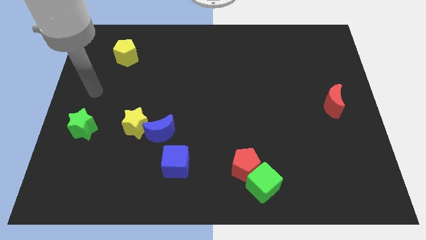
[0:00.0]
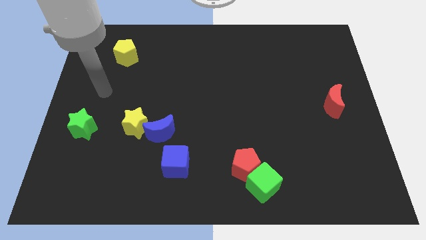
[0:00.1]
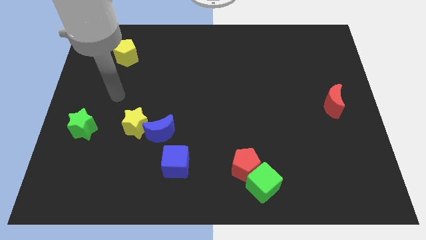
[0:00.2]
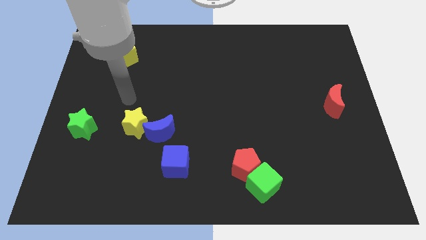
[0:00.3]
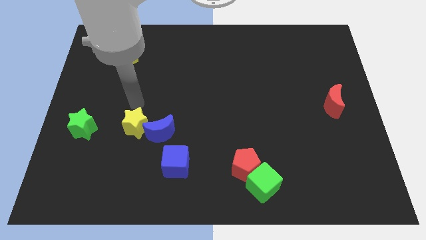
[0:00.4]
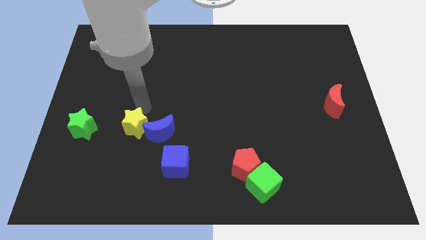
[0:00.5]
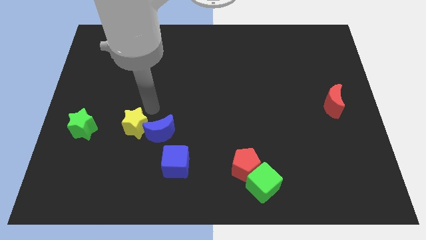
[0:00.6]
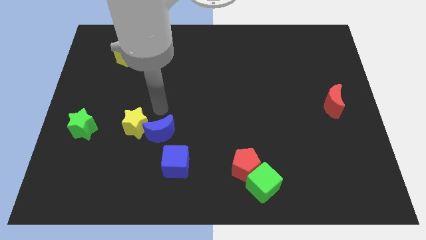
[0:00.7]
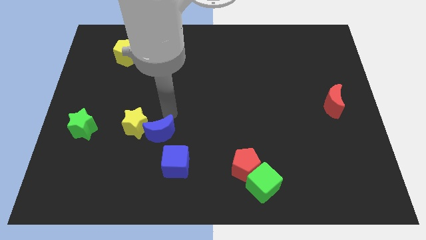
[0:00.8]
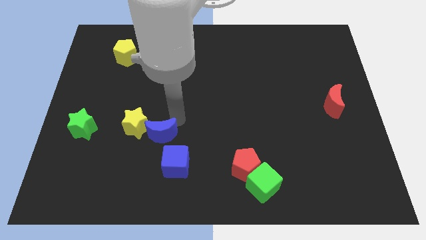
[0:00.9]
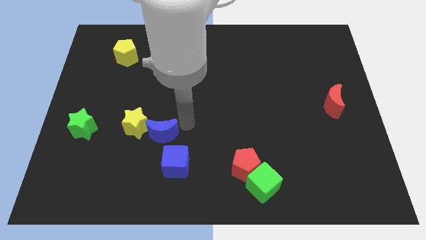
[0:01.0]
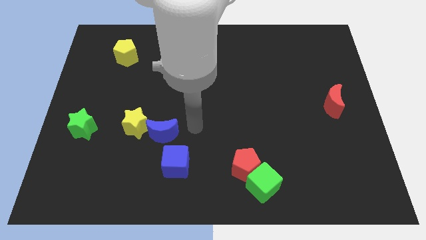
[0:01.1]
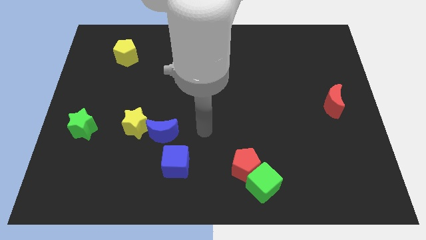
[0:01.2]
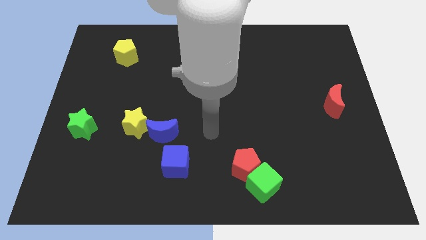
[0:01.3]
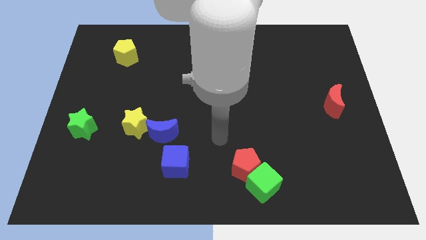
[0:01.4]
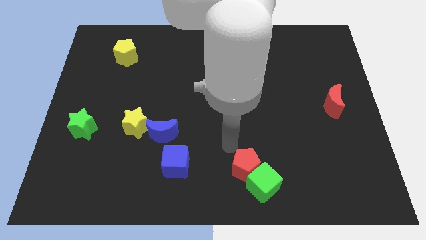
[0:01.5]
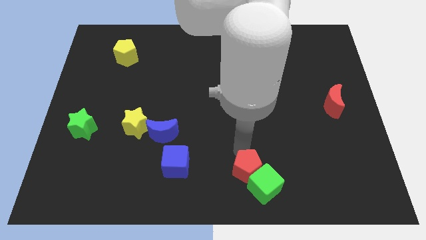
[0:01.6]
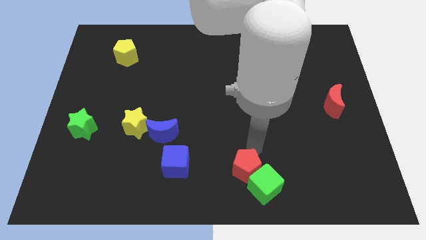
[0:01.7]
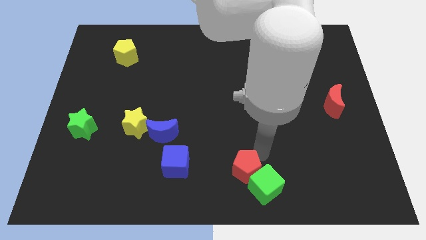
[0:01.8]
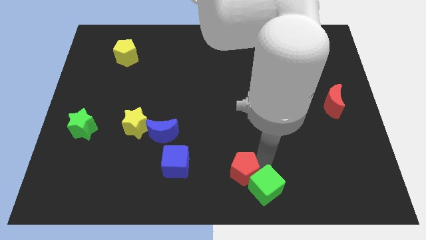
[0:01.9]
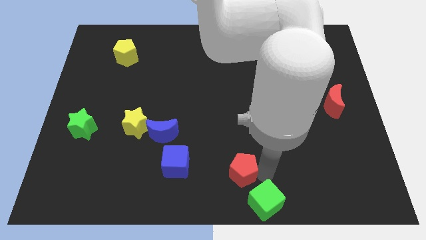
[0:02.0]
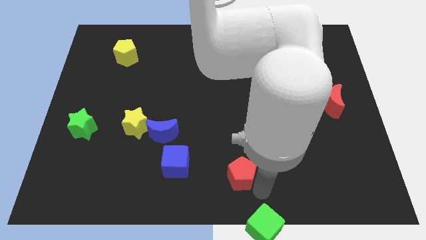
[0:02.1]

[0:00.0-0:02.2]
pull the red pentagon apart from the green cube

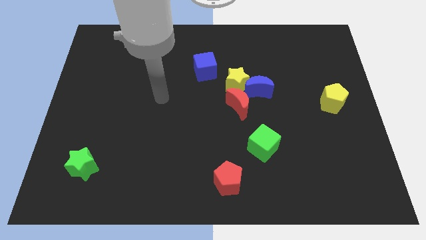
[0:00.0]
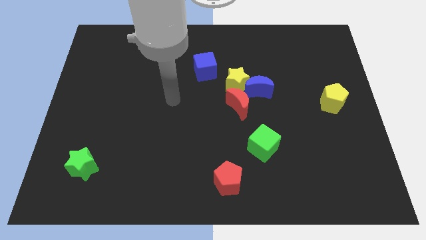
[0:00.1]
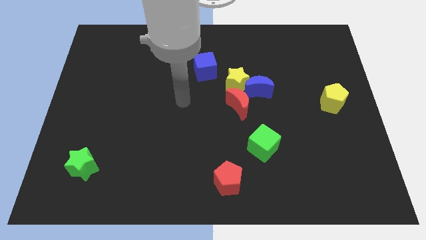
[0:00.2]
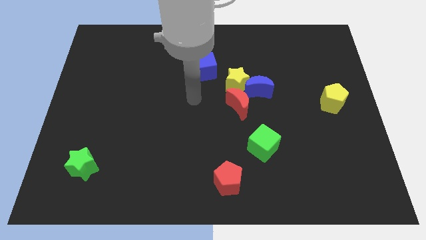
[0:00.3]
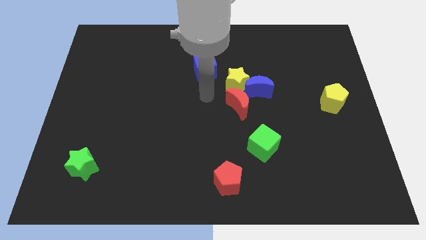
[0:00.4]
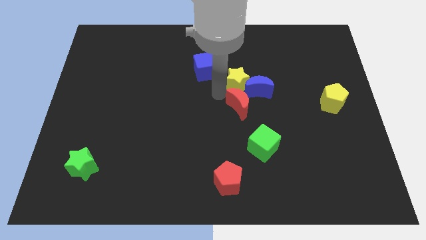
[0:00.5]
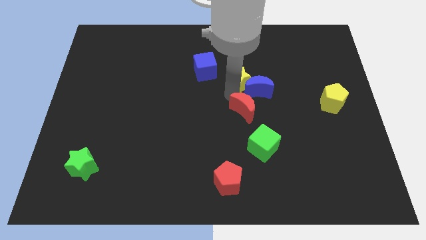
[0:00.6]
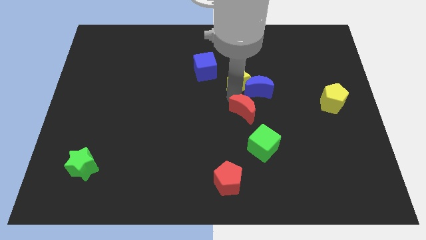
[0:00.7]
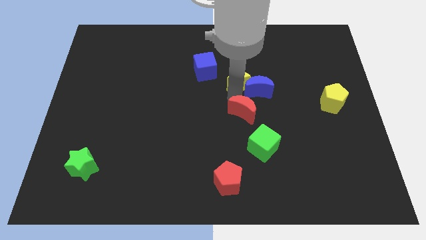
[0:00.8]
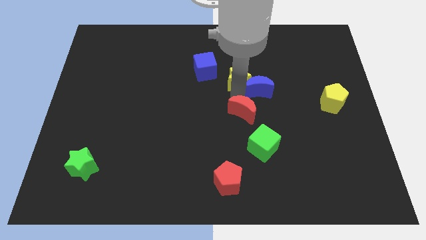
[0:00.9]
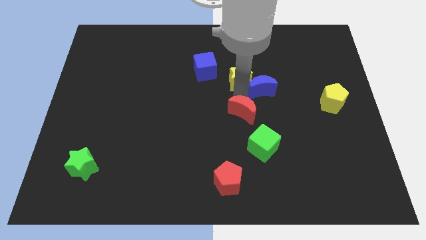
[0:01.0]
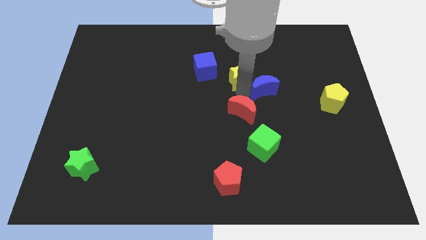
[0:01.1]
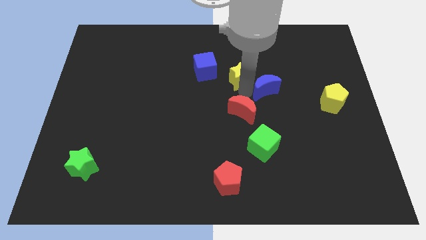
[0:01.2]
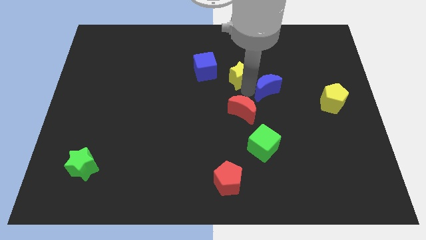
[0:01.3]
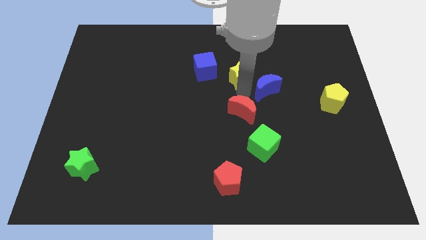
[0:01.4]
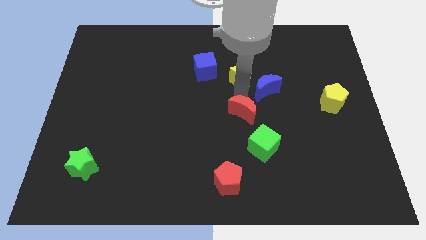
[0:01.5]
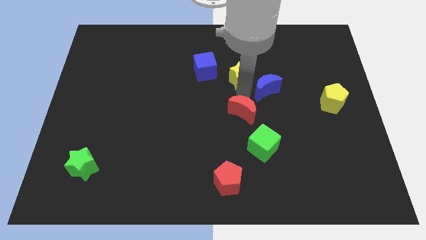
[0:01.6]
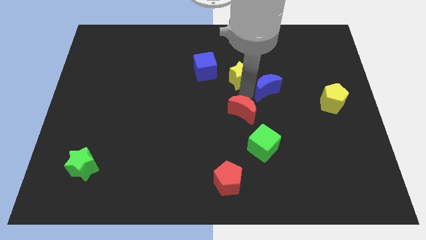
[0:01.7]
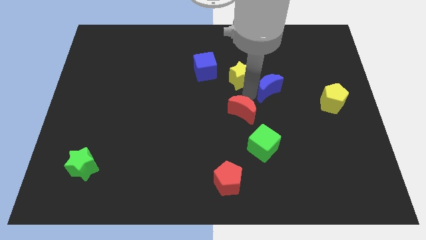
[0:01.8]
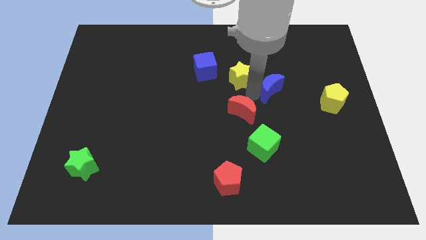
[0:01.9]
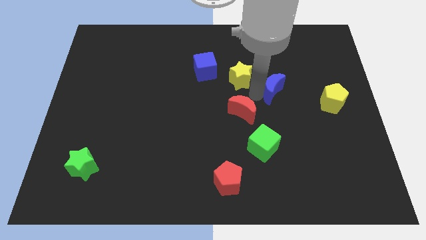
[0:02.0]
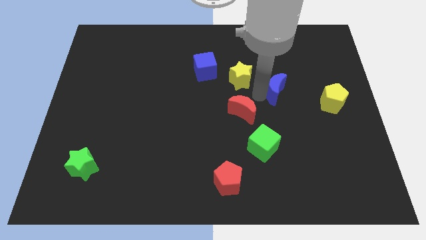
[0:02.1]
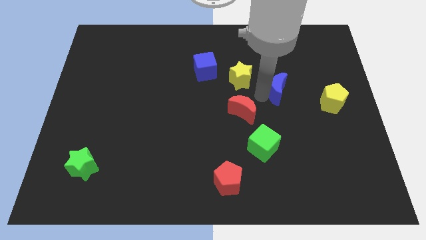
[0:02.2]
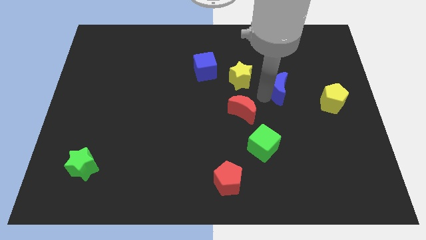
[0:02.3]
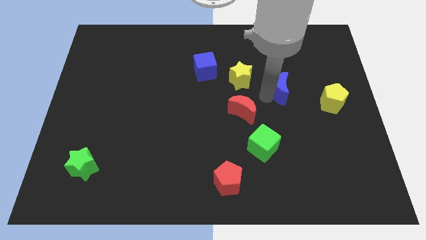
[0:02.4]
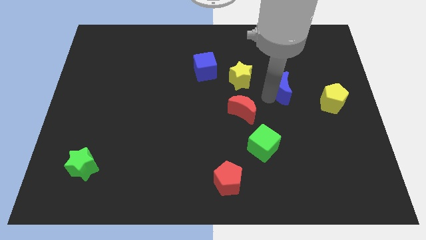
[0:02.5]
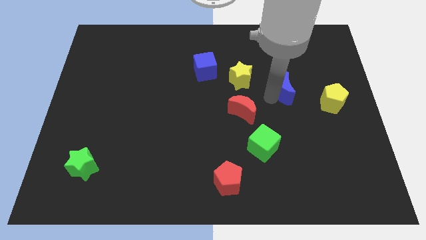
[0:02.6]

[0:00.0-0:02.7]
separate the blue moon from the yellow star and red moon

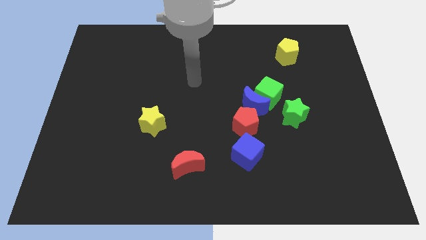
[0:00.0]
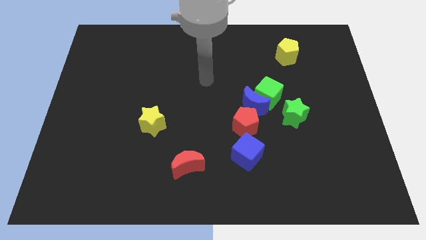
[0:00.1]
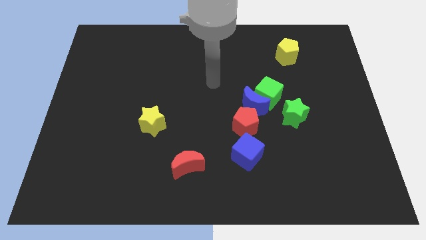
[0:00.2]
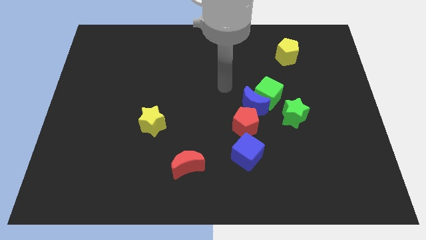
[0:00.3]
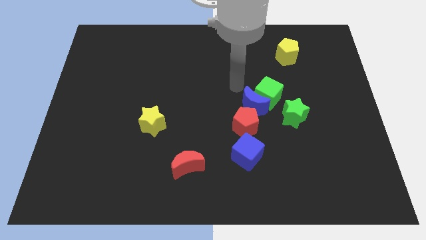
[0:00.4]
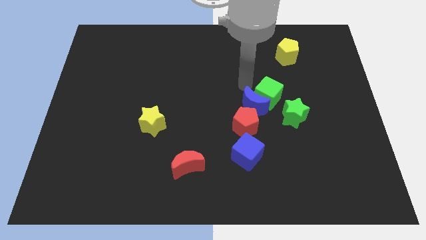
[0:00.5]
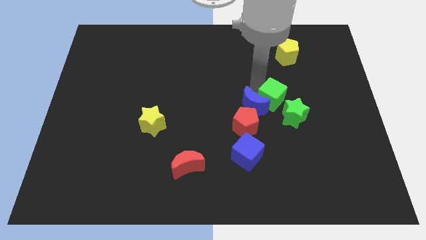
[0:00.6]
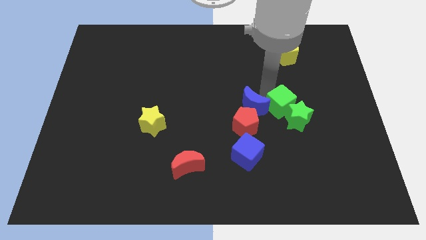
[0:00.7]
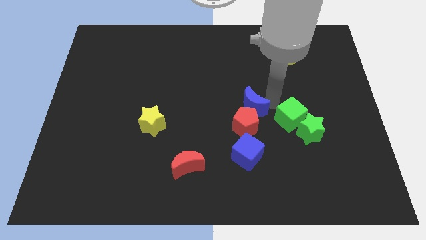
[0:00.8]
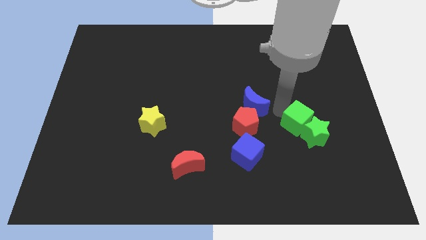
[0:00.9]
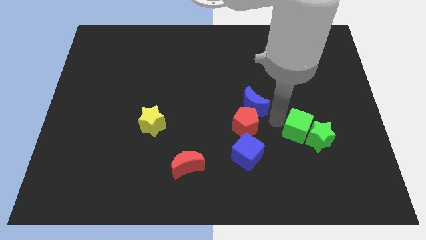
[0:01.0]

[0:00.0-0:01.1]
separate the blue moon from the green cube, red pentagon, and green star

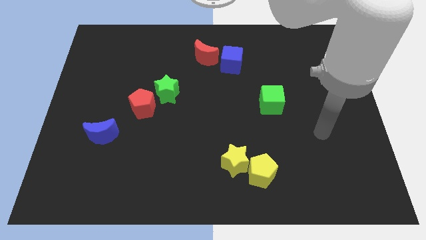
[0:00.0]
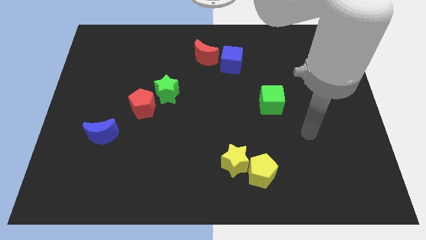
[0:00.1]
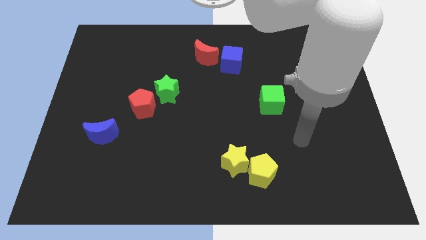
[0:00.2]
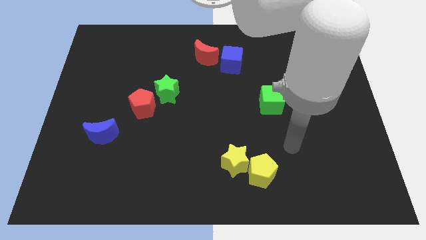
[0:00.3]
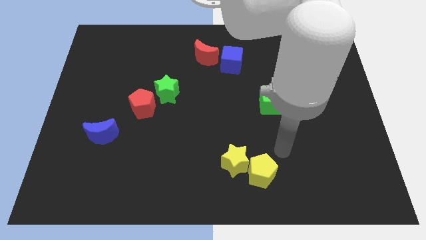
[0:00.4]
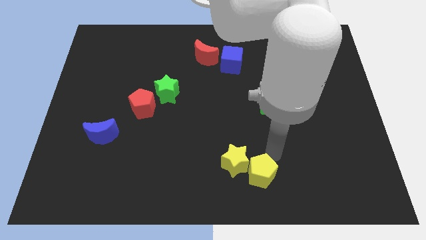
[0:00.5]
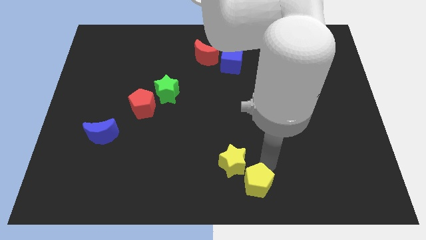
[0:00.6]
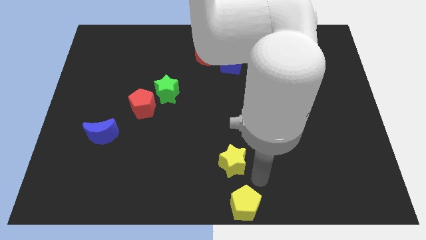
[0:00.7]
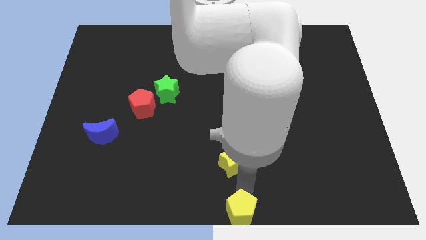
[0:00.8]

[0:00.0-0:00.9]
pull the yellow star apart from the yellow pentagon

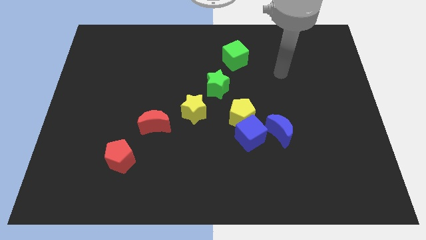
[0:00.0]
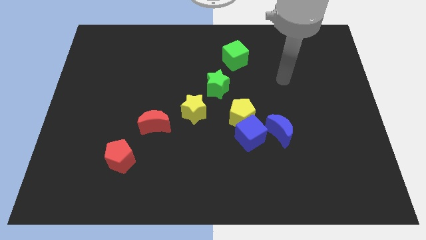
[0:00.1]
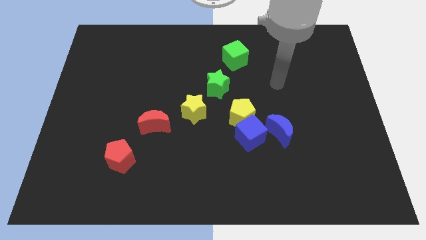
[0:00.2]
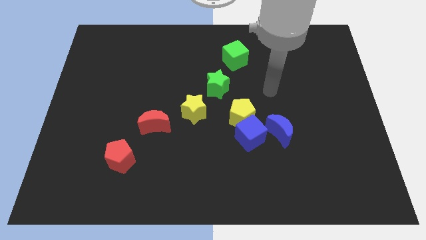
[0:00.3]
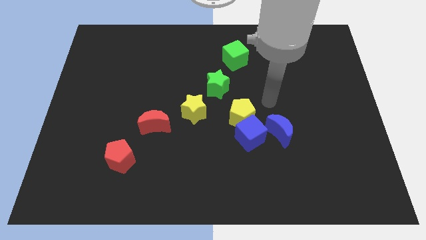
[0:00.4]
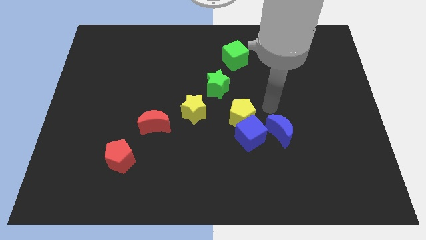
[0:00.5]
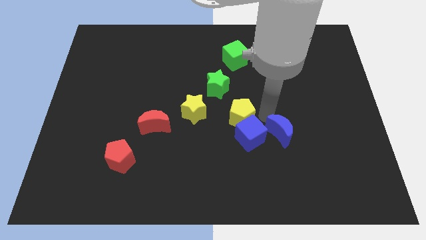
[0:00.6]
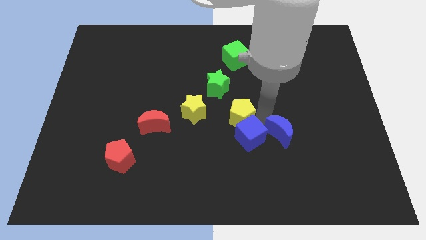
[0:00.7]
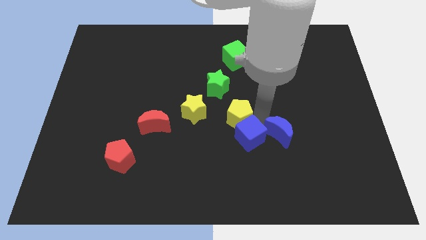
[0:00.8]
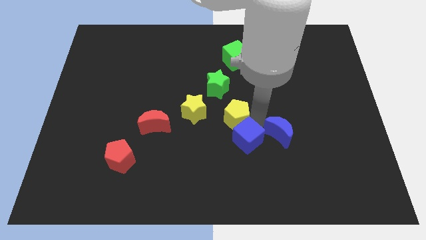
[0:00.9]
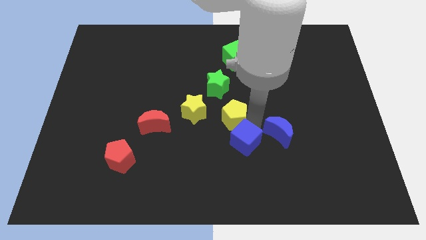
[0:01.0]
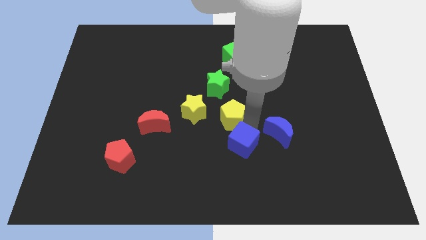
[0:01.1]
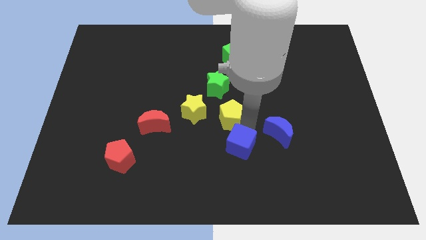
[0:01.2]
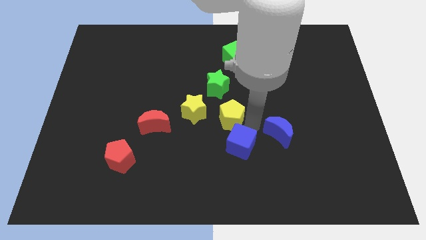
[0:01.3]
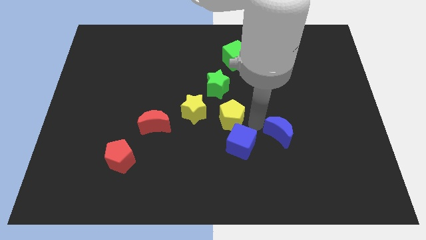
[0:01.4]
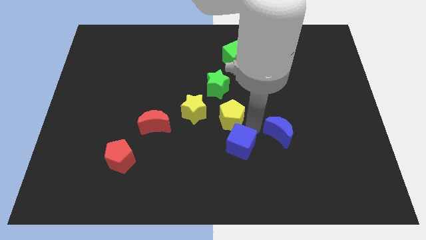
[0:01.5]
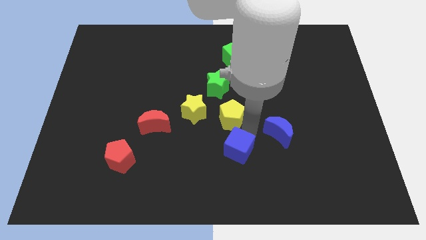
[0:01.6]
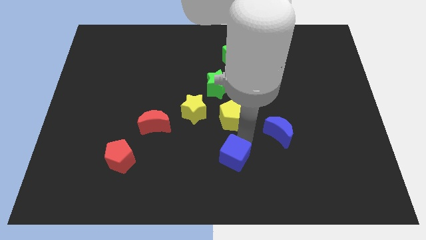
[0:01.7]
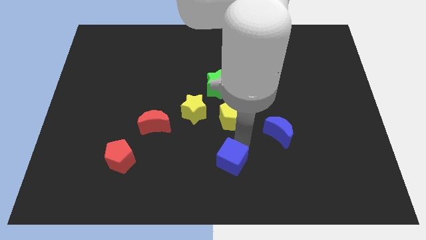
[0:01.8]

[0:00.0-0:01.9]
pull the blue cube apart from the yellow pentagon and blue moon

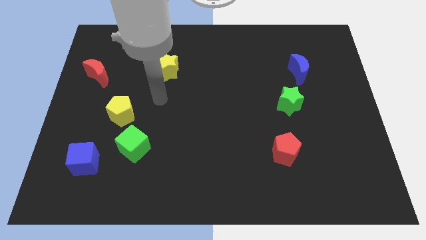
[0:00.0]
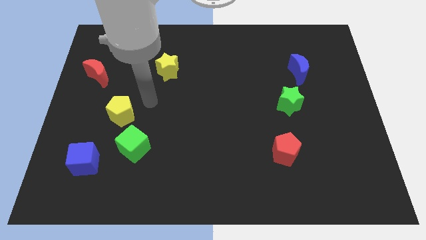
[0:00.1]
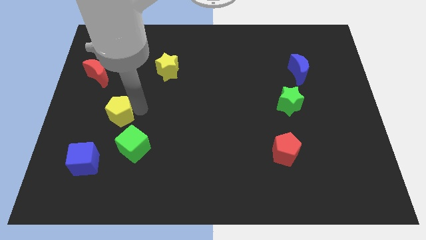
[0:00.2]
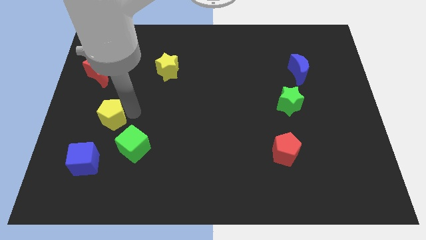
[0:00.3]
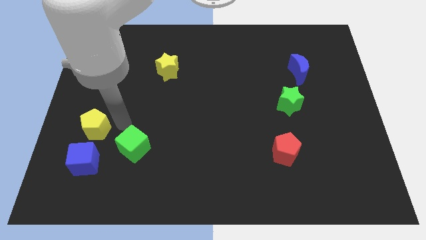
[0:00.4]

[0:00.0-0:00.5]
separate the green cube from the yellow pentagon
